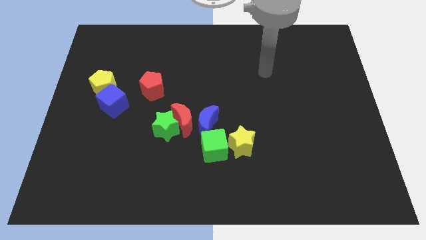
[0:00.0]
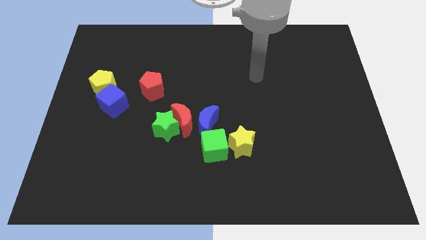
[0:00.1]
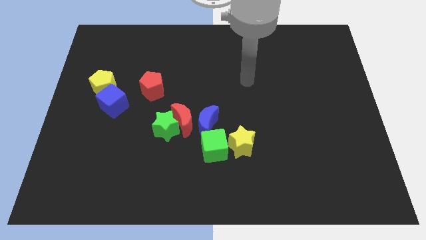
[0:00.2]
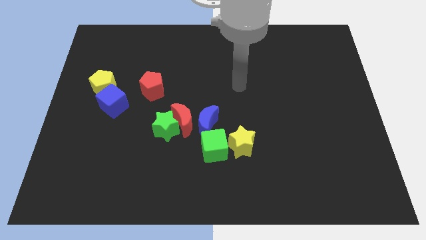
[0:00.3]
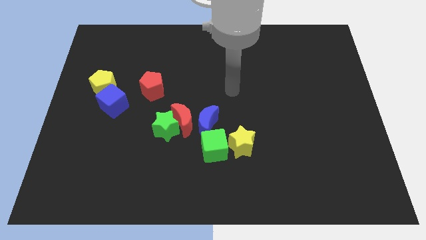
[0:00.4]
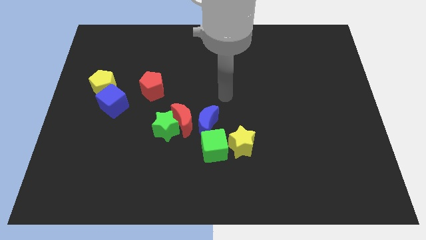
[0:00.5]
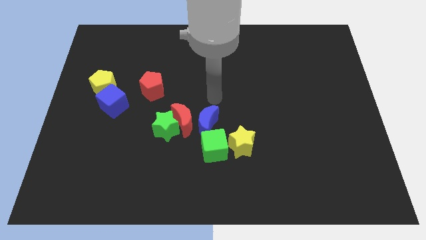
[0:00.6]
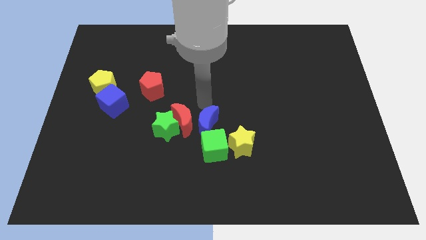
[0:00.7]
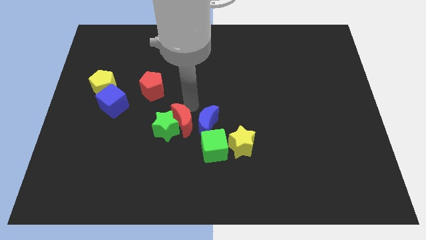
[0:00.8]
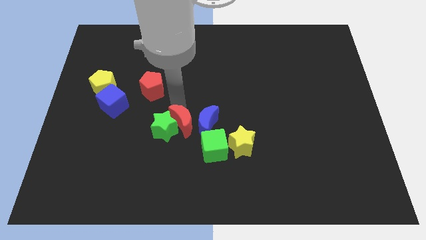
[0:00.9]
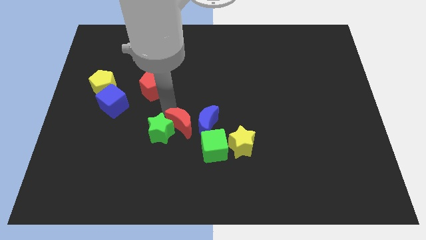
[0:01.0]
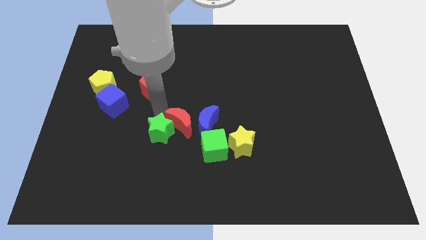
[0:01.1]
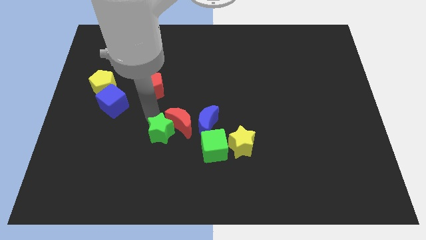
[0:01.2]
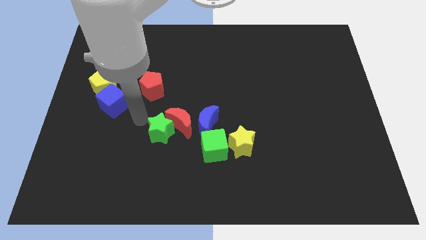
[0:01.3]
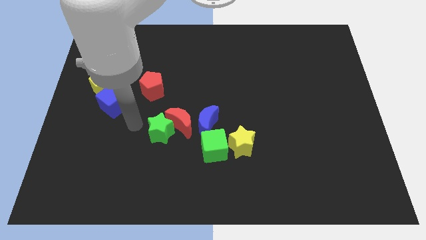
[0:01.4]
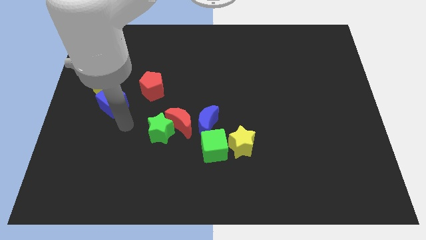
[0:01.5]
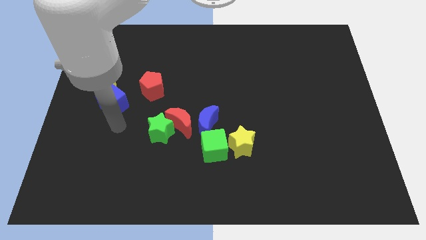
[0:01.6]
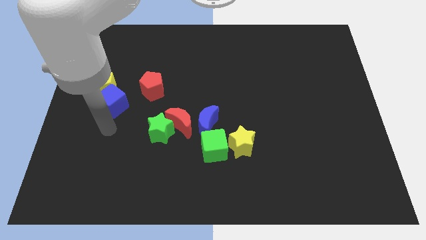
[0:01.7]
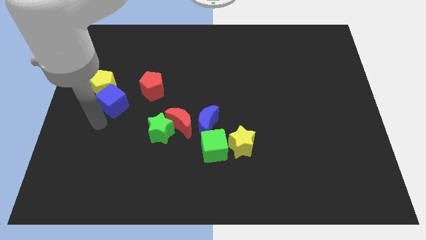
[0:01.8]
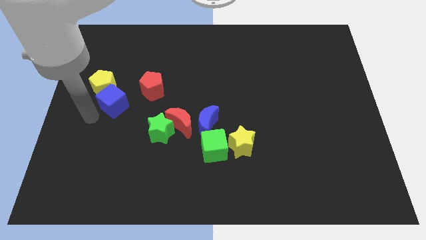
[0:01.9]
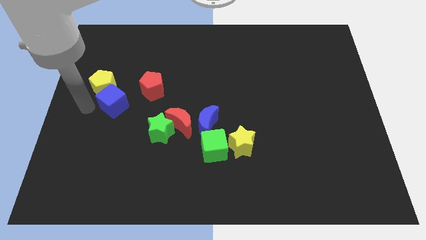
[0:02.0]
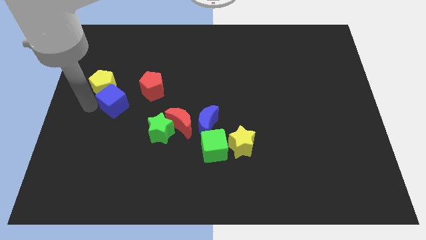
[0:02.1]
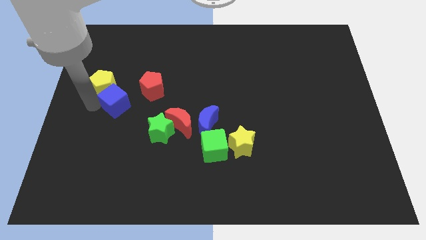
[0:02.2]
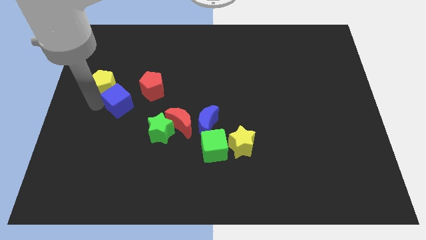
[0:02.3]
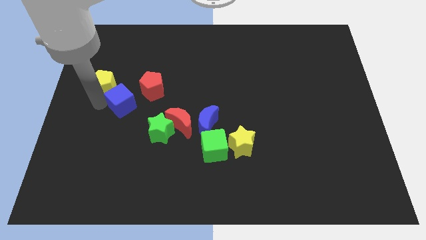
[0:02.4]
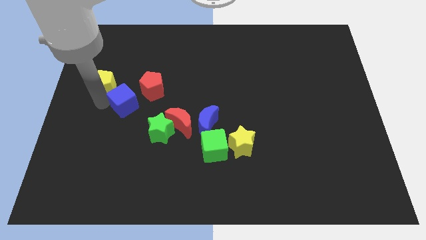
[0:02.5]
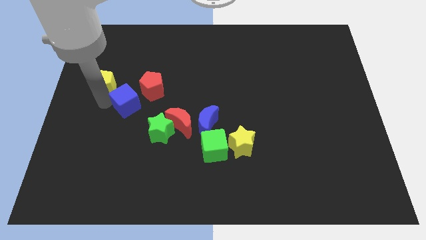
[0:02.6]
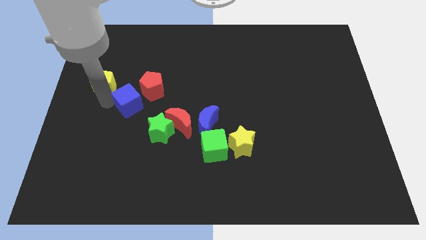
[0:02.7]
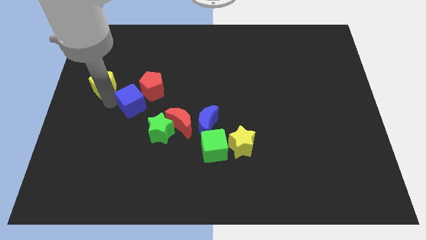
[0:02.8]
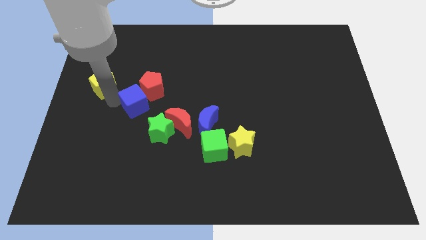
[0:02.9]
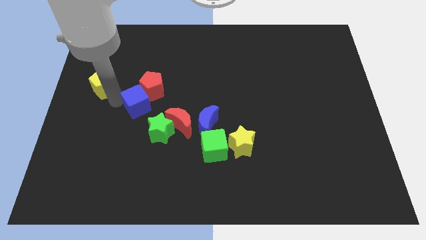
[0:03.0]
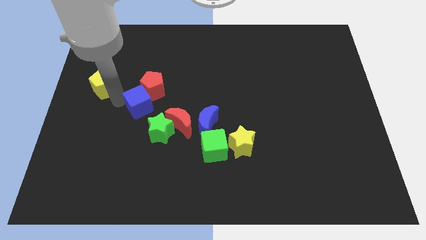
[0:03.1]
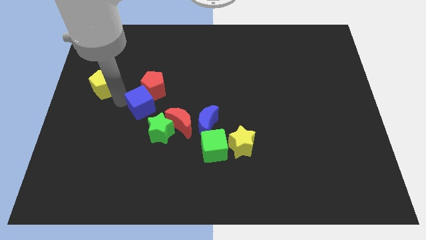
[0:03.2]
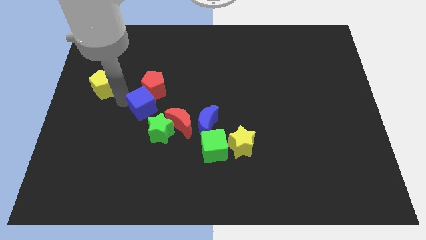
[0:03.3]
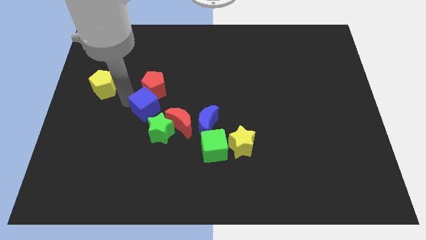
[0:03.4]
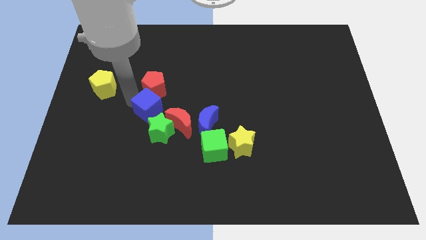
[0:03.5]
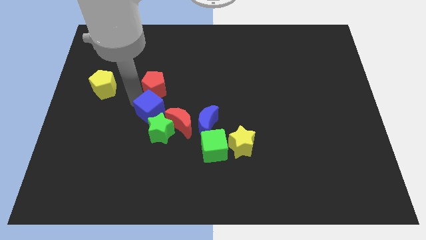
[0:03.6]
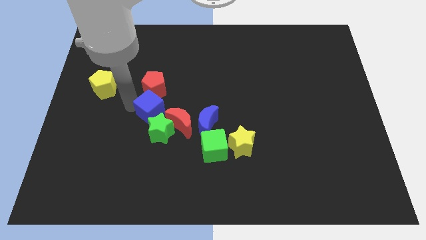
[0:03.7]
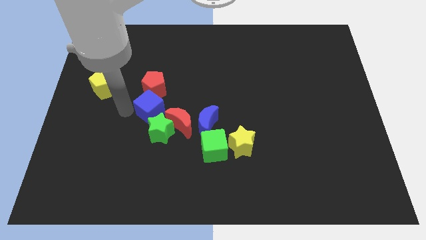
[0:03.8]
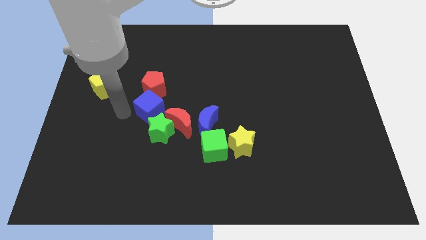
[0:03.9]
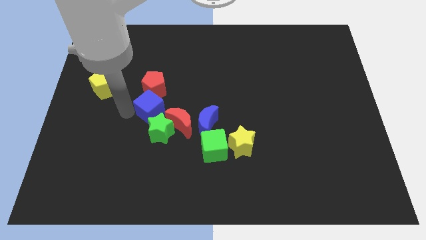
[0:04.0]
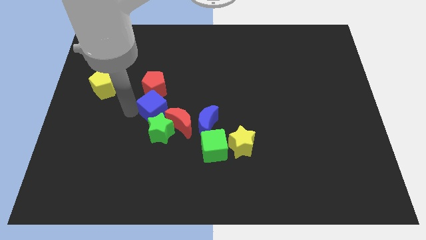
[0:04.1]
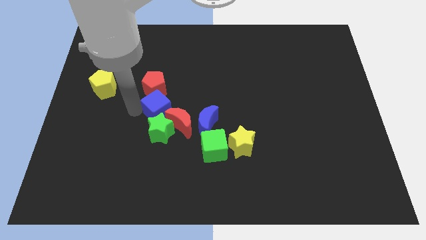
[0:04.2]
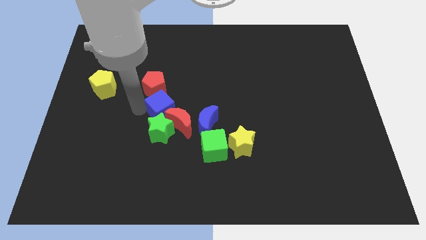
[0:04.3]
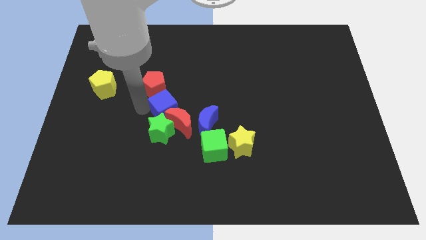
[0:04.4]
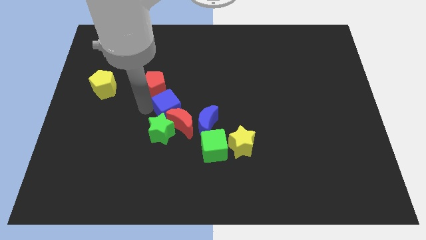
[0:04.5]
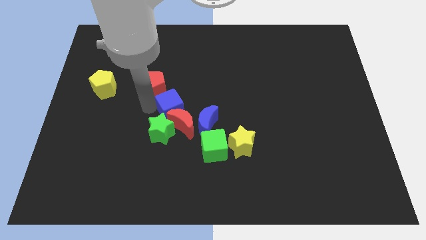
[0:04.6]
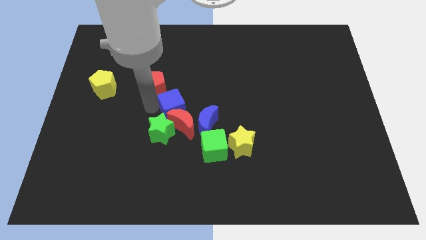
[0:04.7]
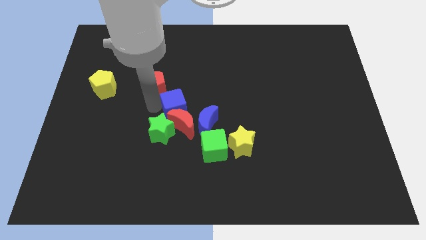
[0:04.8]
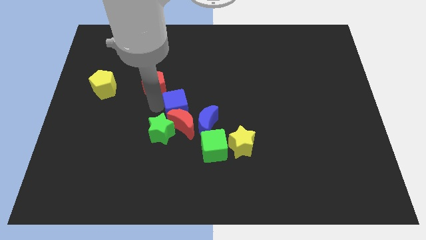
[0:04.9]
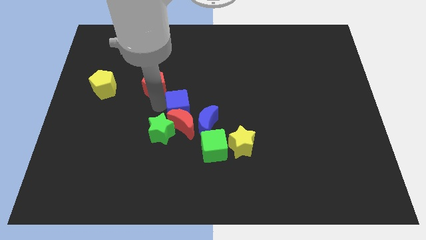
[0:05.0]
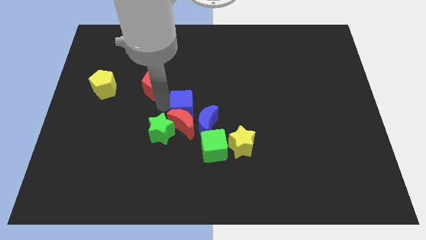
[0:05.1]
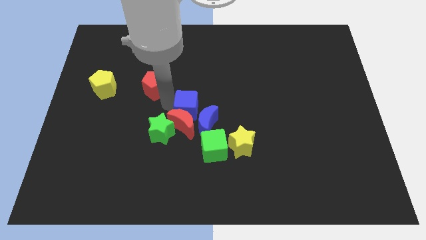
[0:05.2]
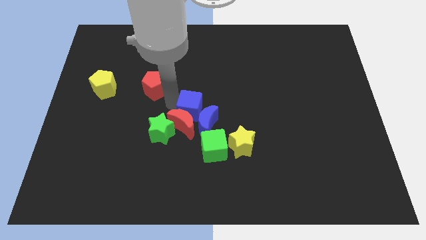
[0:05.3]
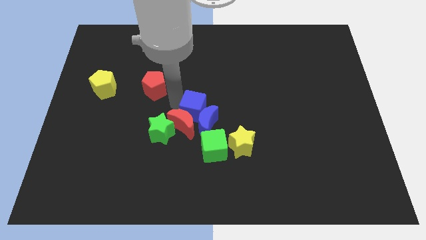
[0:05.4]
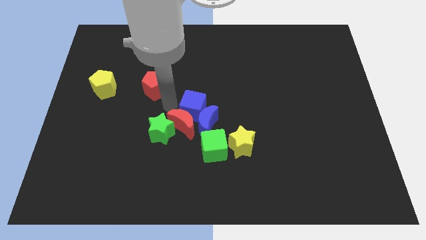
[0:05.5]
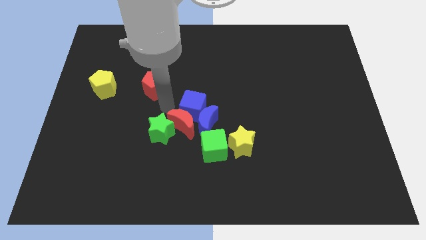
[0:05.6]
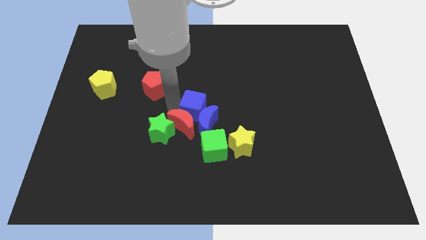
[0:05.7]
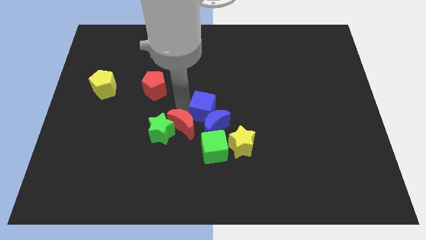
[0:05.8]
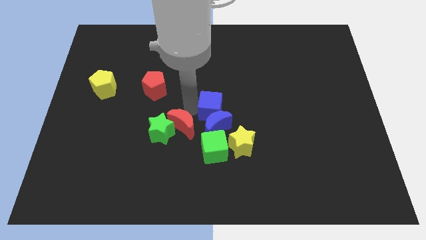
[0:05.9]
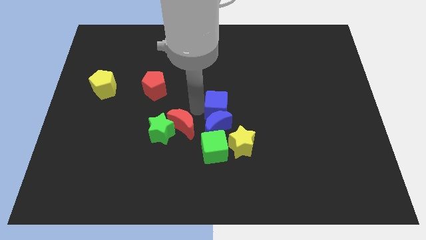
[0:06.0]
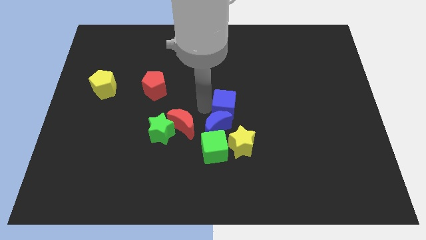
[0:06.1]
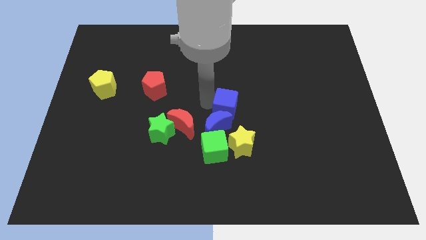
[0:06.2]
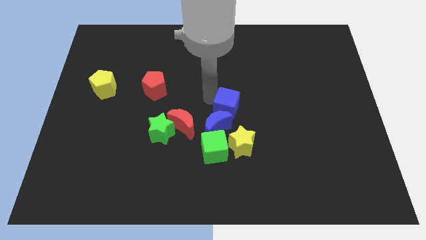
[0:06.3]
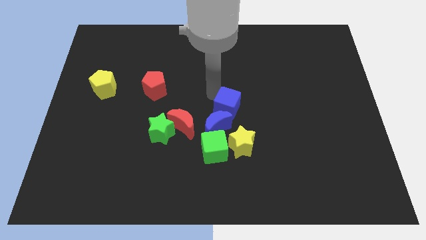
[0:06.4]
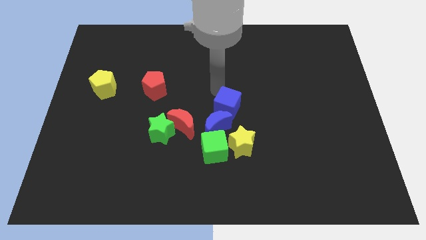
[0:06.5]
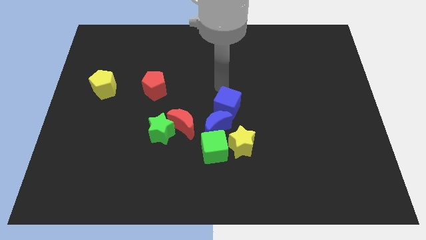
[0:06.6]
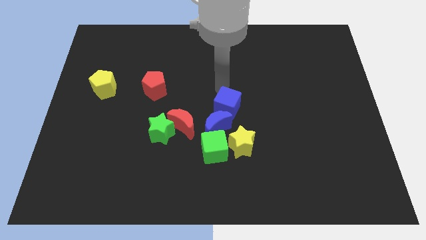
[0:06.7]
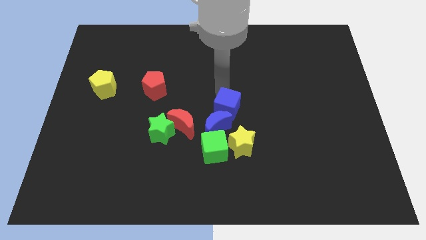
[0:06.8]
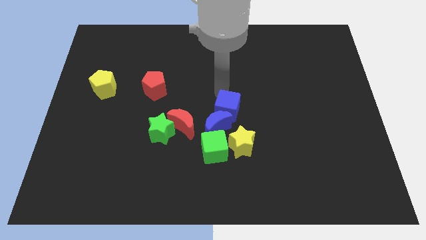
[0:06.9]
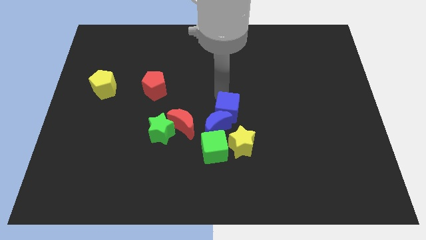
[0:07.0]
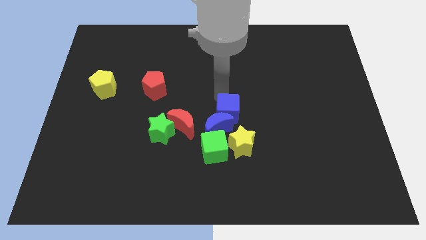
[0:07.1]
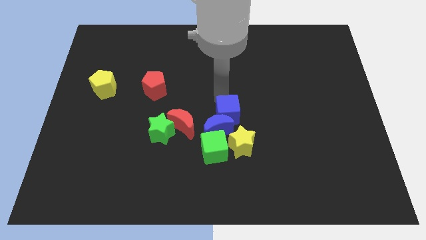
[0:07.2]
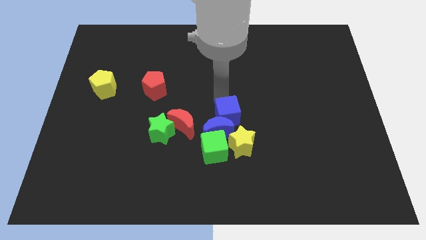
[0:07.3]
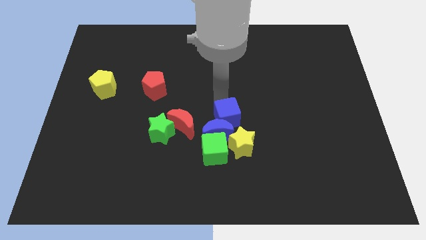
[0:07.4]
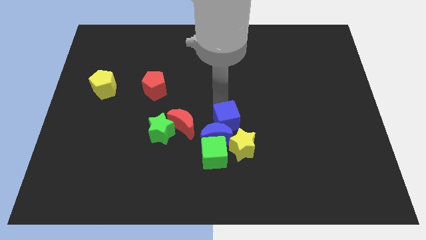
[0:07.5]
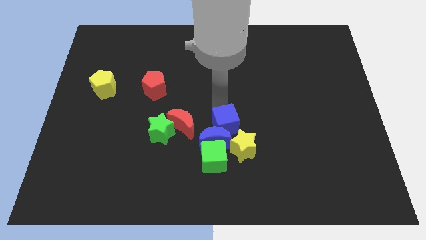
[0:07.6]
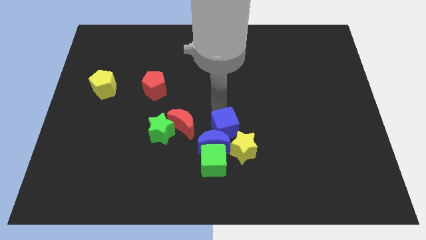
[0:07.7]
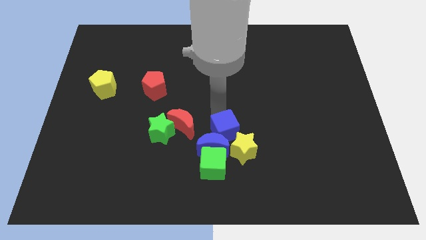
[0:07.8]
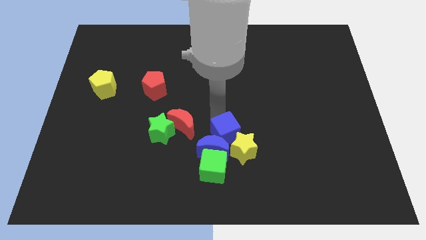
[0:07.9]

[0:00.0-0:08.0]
slide the blue cube to the yellow star

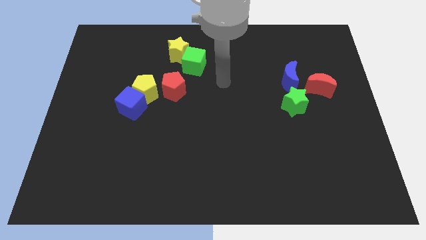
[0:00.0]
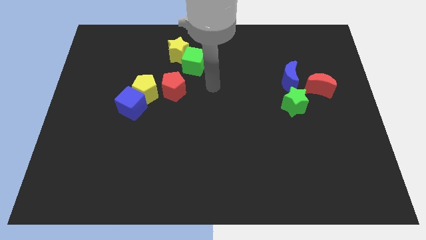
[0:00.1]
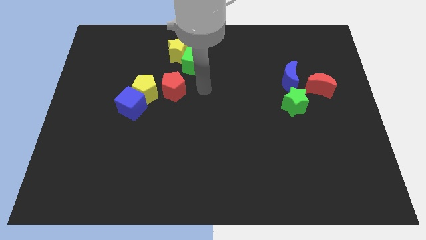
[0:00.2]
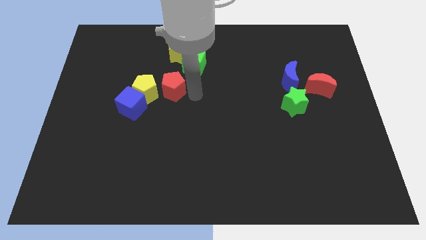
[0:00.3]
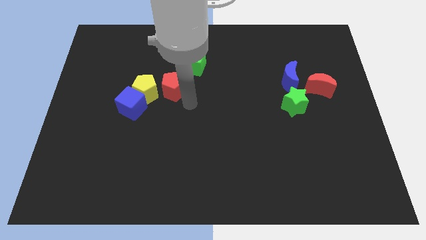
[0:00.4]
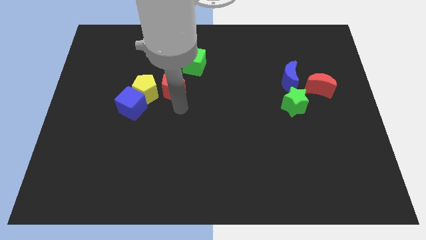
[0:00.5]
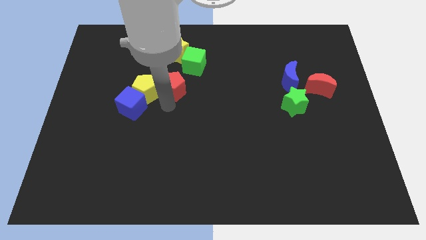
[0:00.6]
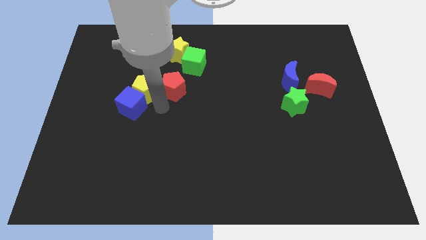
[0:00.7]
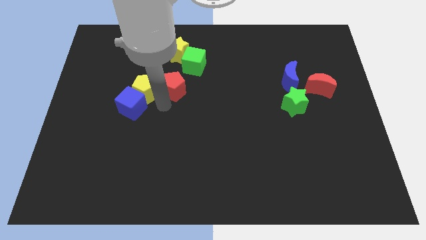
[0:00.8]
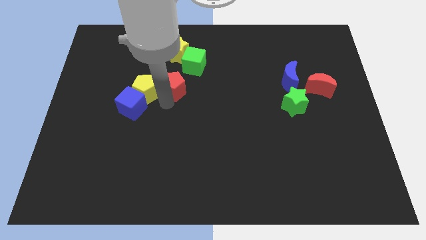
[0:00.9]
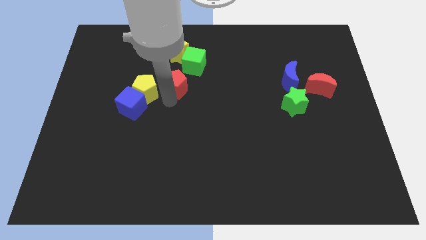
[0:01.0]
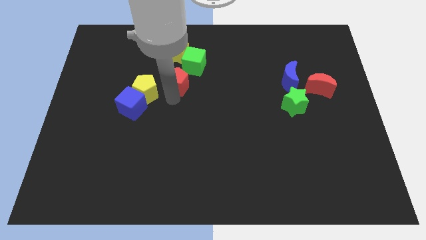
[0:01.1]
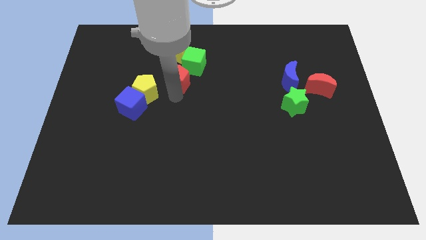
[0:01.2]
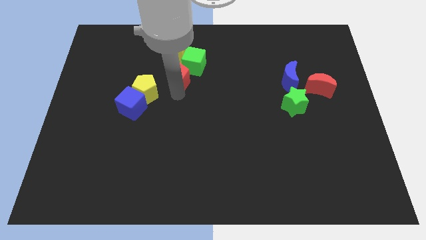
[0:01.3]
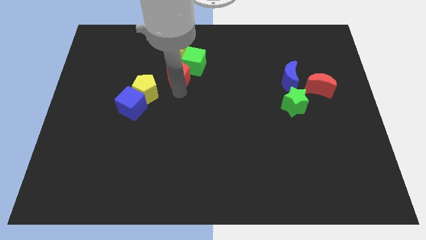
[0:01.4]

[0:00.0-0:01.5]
move the red pentagon towards the green cube
